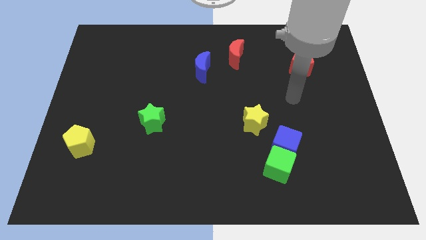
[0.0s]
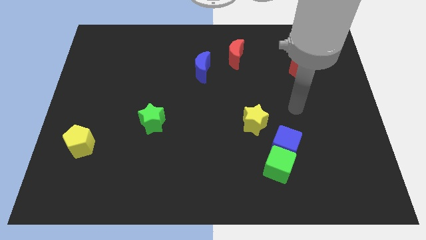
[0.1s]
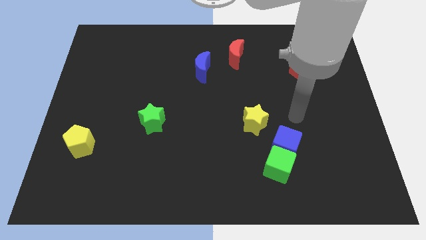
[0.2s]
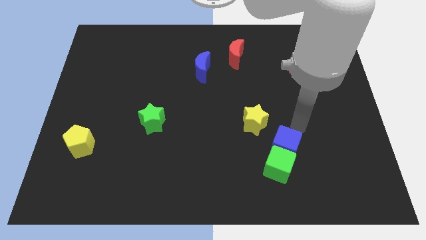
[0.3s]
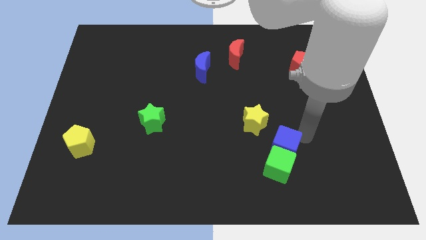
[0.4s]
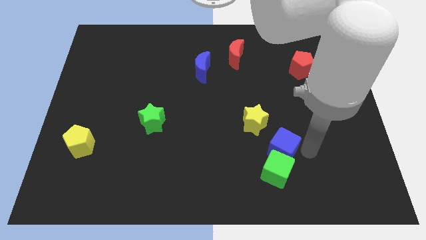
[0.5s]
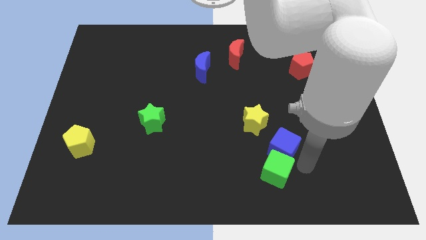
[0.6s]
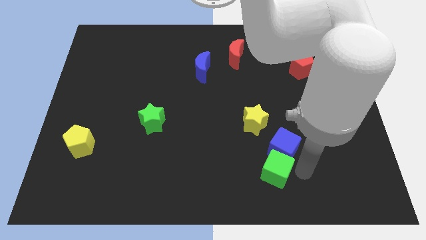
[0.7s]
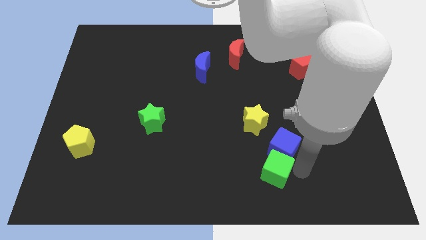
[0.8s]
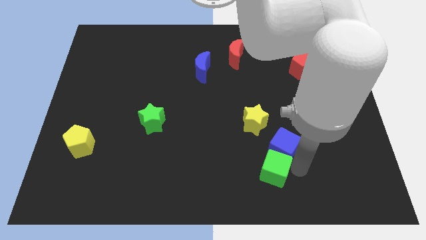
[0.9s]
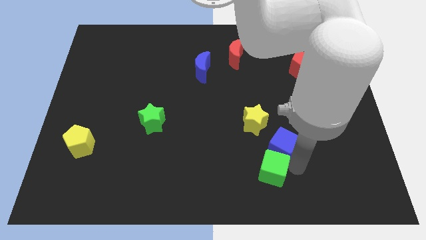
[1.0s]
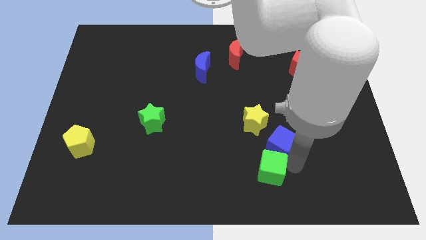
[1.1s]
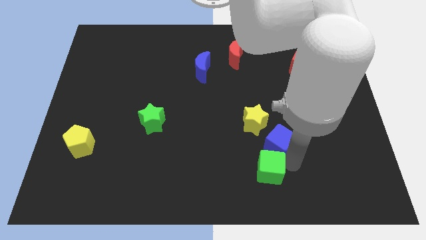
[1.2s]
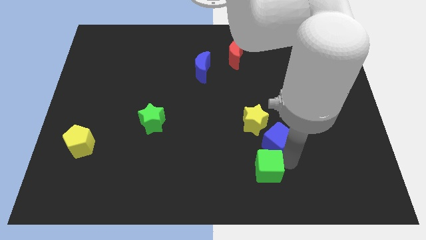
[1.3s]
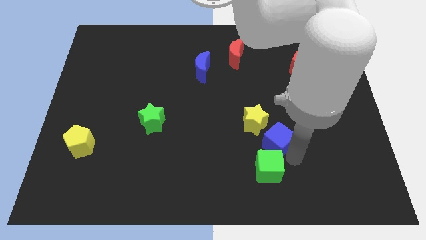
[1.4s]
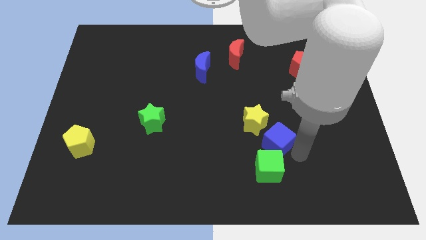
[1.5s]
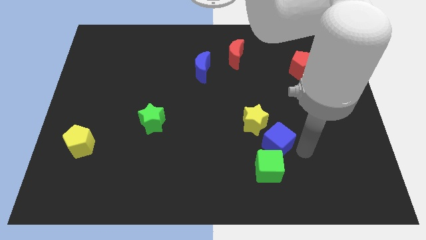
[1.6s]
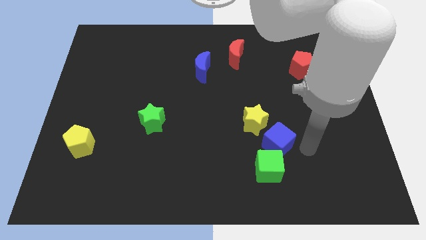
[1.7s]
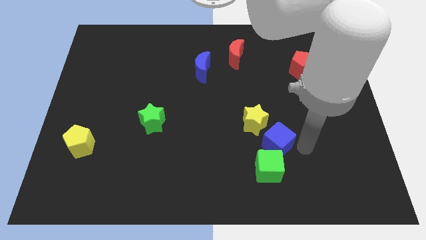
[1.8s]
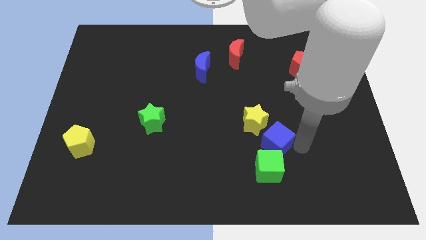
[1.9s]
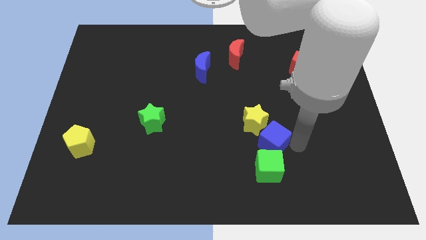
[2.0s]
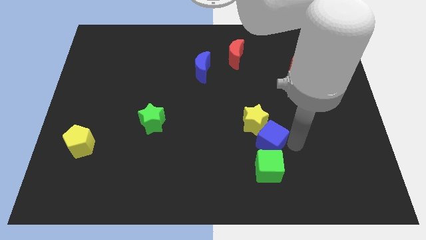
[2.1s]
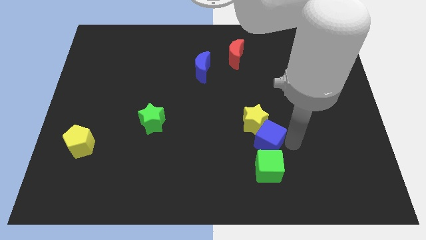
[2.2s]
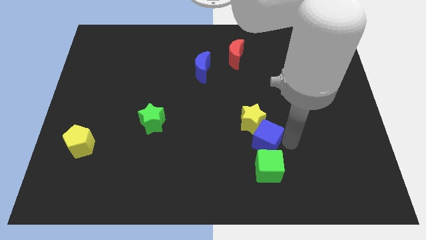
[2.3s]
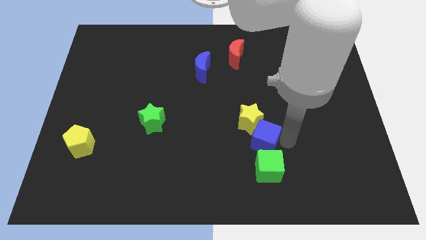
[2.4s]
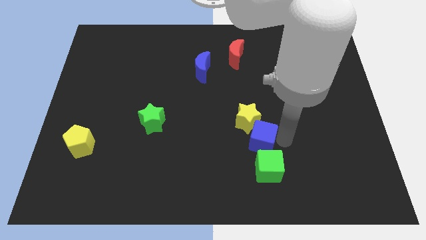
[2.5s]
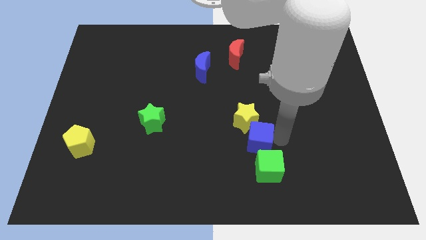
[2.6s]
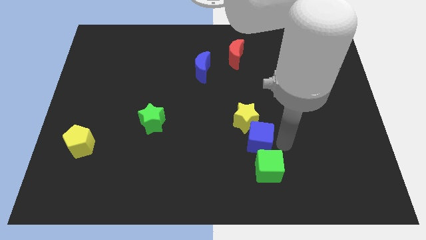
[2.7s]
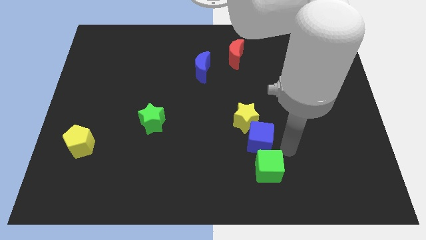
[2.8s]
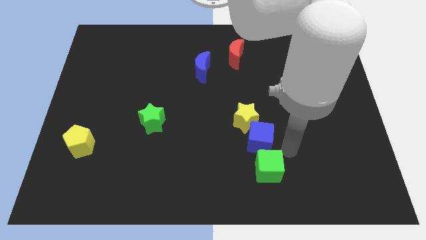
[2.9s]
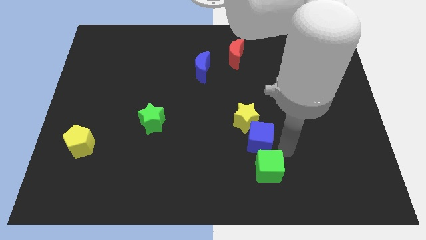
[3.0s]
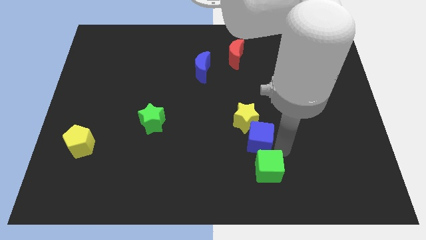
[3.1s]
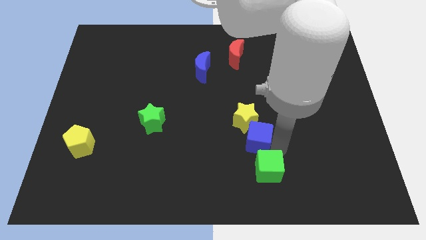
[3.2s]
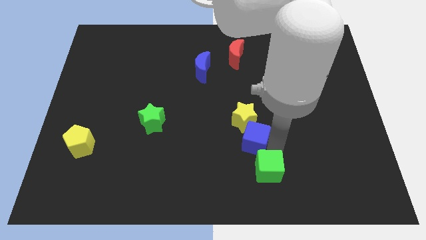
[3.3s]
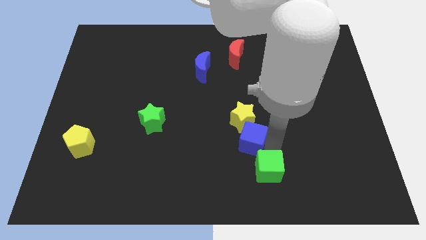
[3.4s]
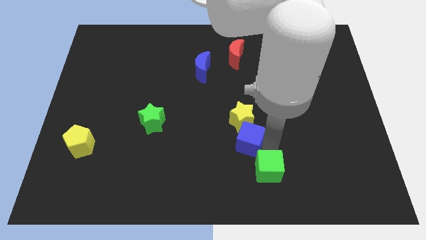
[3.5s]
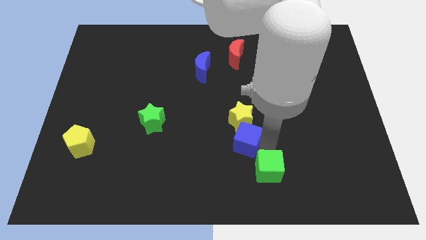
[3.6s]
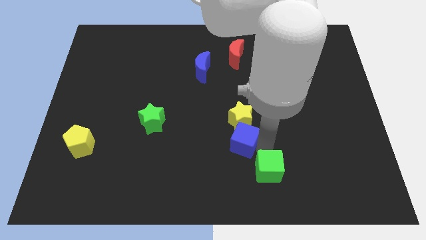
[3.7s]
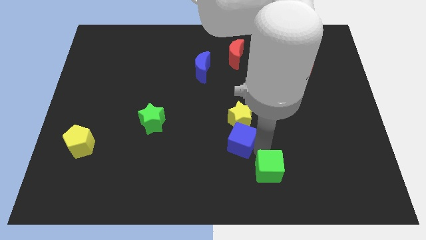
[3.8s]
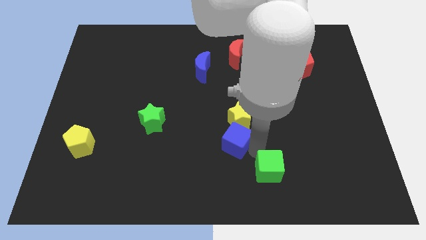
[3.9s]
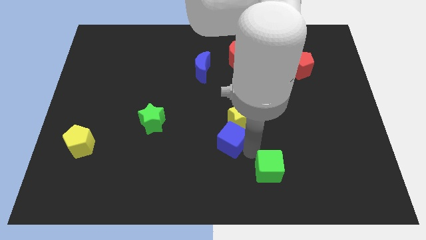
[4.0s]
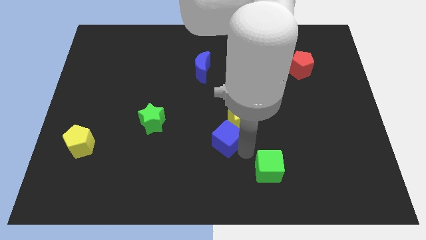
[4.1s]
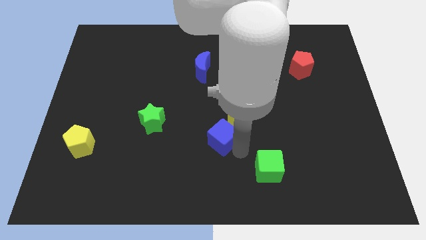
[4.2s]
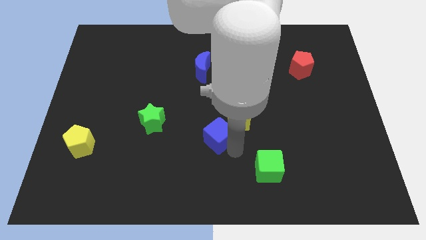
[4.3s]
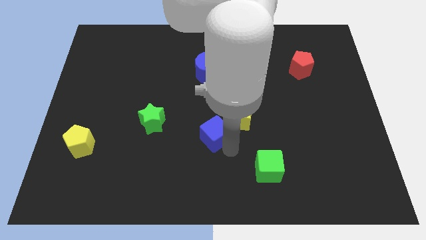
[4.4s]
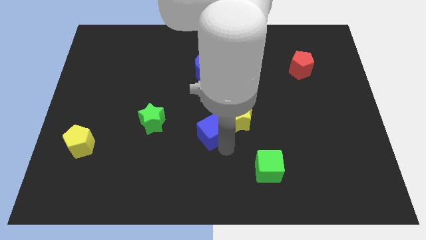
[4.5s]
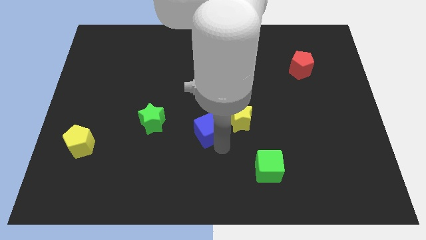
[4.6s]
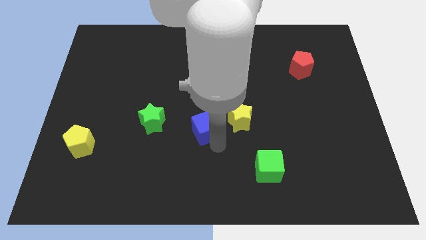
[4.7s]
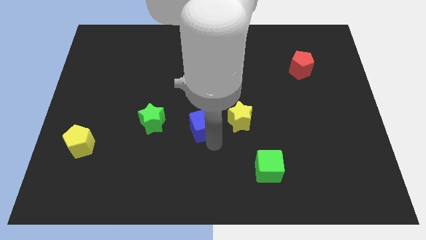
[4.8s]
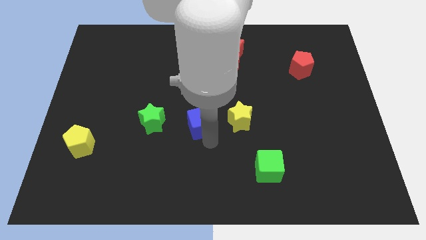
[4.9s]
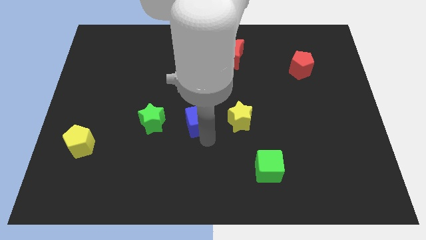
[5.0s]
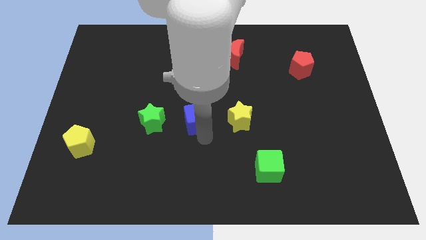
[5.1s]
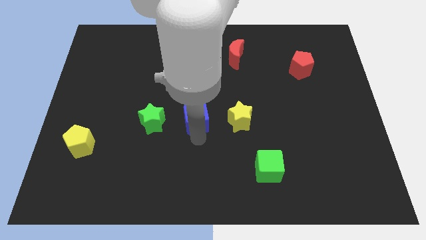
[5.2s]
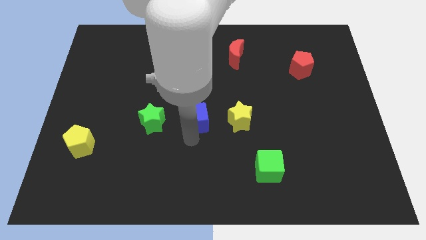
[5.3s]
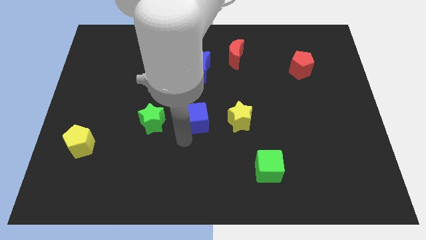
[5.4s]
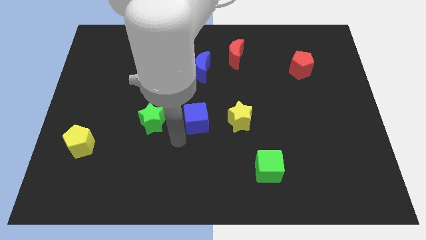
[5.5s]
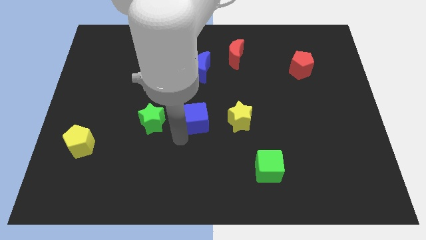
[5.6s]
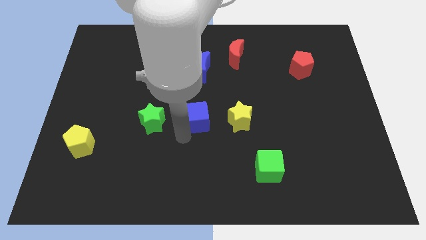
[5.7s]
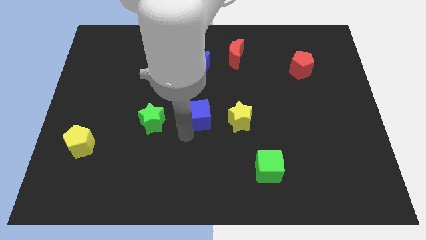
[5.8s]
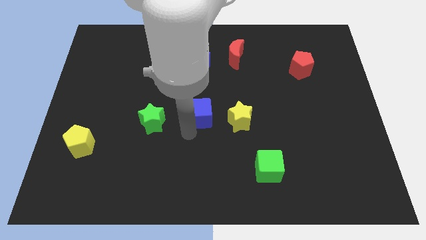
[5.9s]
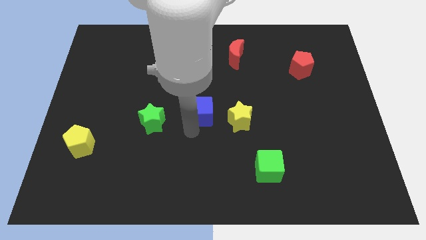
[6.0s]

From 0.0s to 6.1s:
put the blue cube to the top left of the yellow star

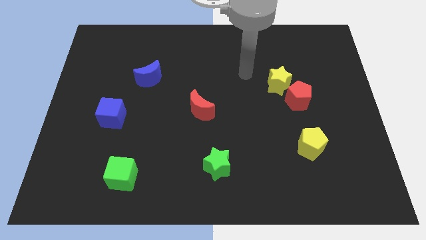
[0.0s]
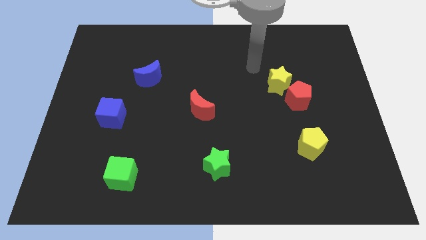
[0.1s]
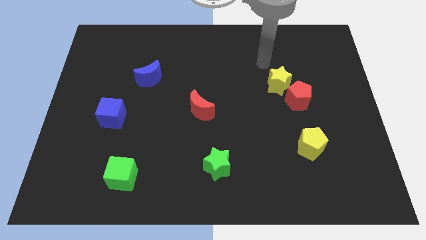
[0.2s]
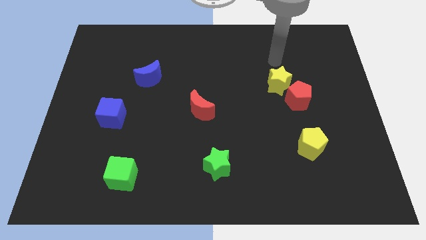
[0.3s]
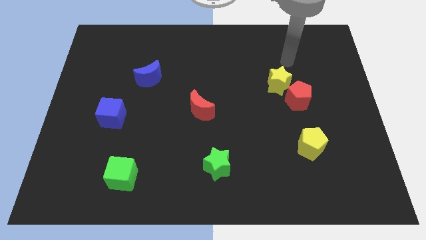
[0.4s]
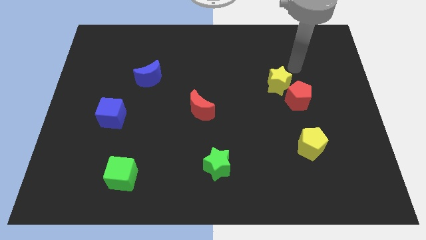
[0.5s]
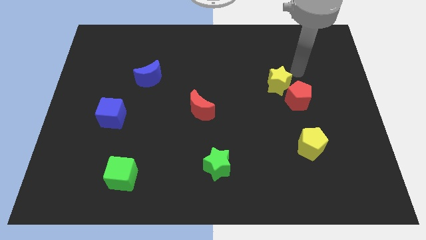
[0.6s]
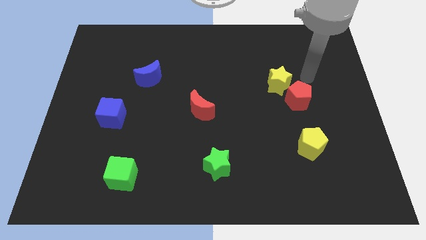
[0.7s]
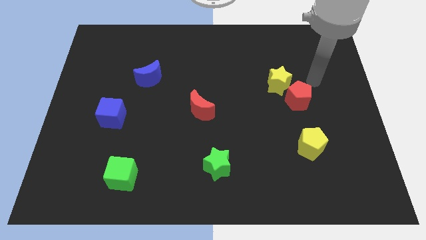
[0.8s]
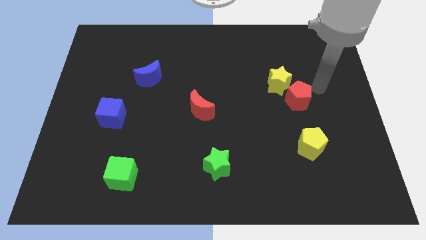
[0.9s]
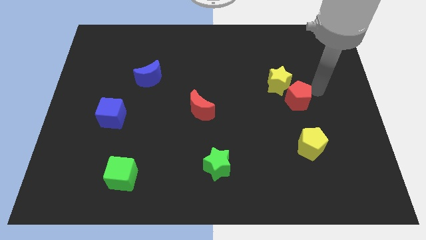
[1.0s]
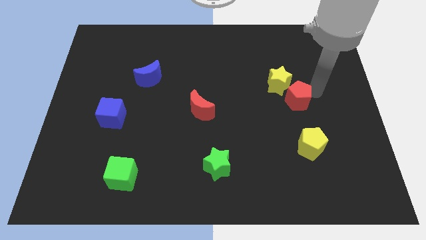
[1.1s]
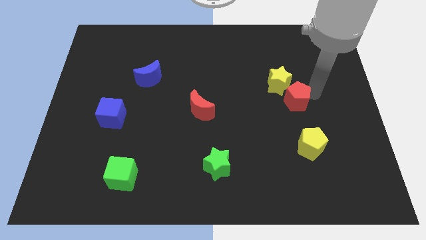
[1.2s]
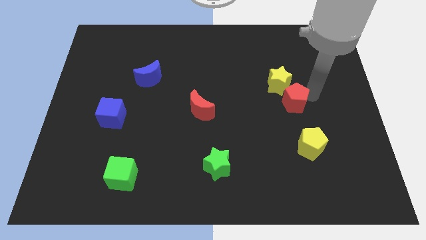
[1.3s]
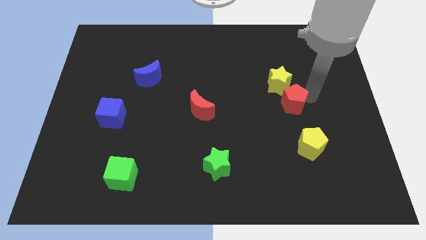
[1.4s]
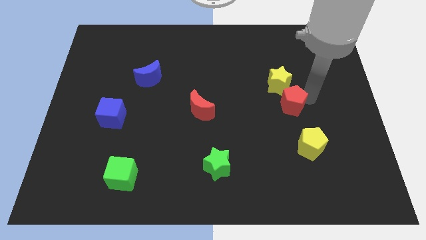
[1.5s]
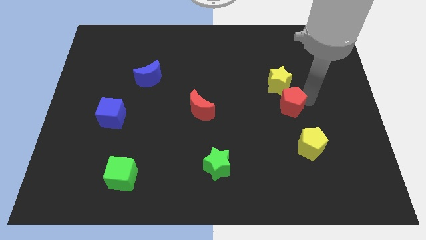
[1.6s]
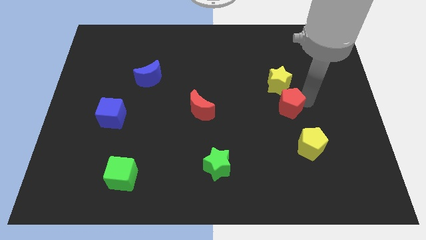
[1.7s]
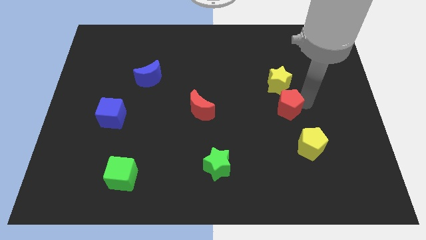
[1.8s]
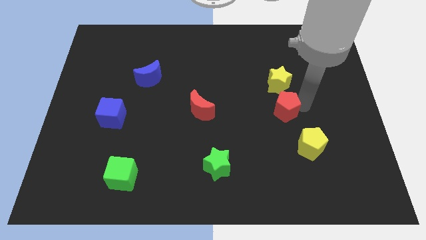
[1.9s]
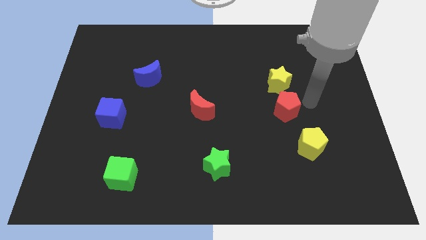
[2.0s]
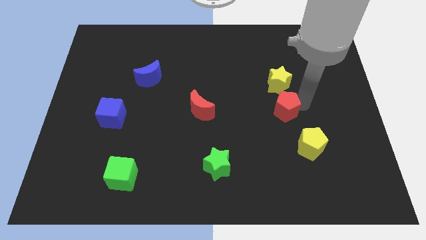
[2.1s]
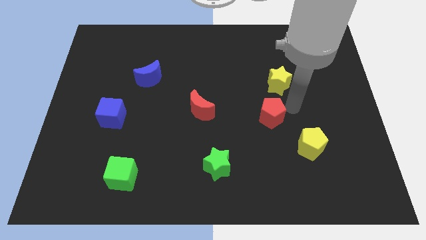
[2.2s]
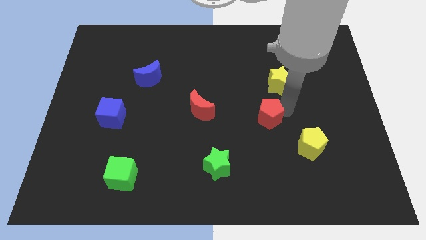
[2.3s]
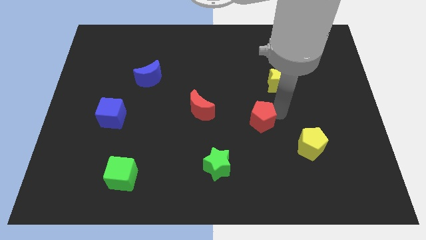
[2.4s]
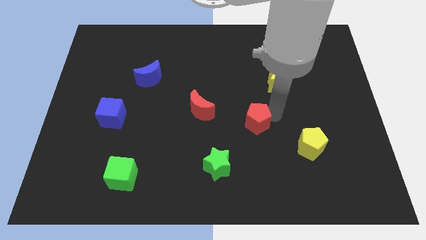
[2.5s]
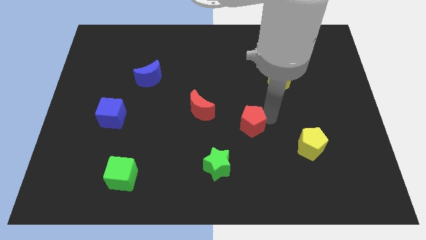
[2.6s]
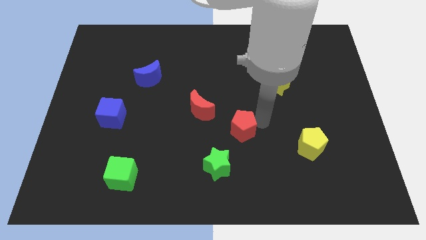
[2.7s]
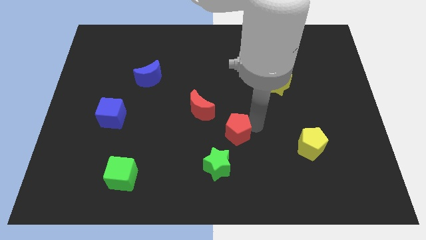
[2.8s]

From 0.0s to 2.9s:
move the red pentagon to the top of the green star

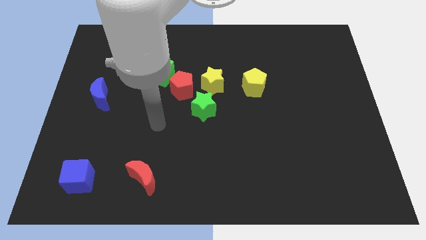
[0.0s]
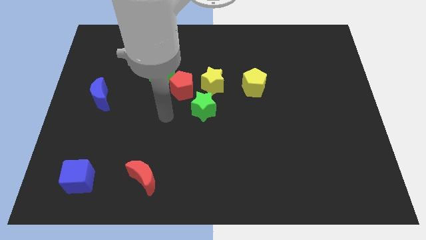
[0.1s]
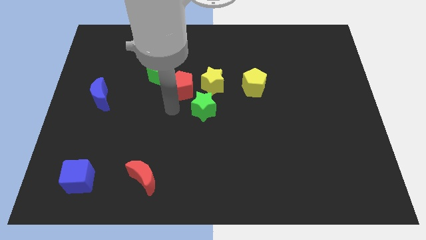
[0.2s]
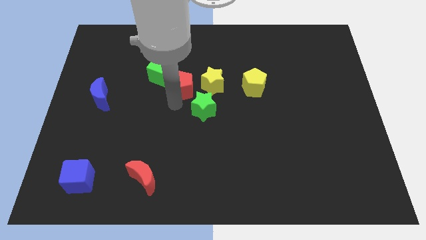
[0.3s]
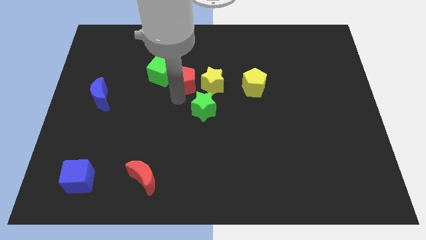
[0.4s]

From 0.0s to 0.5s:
push the red pentagon to the top left side of the yellow star
